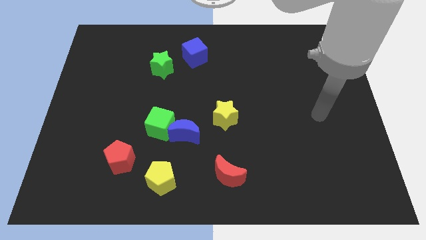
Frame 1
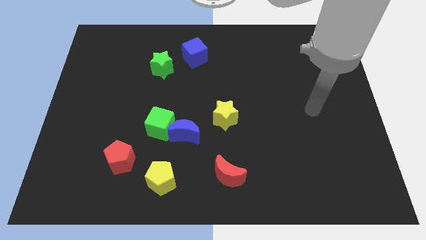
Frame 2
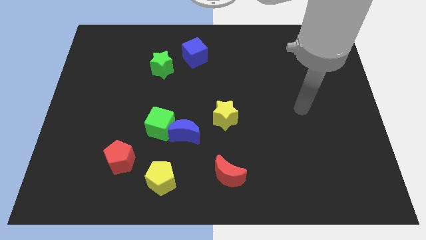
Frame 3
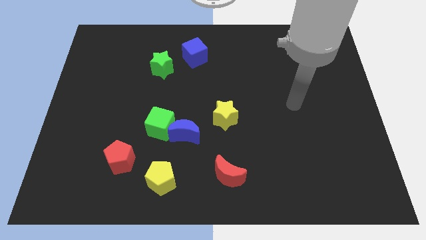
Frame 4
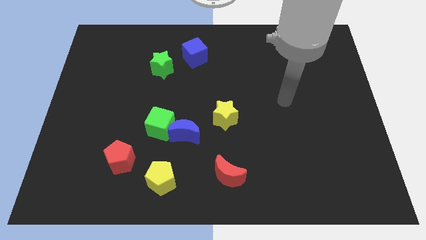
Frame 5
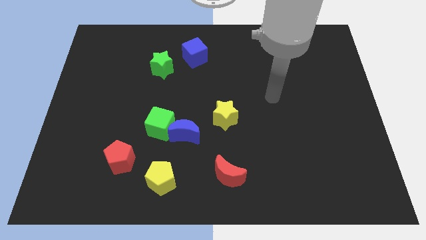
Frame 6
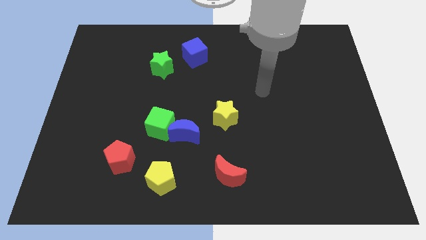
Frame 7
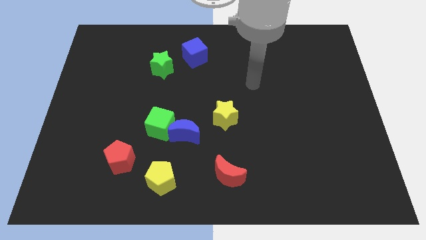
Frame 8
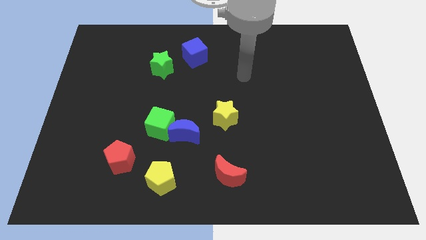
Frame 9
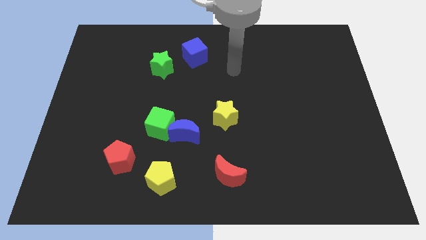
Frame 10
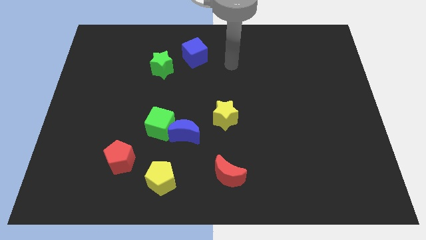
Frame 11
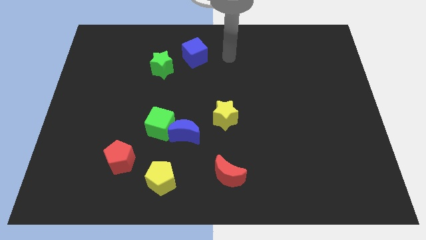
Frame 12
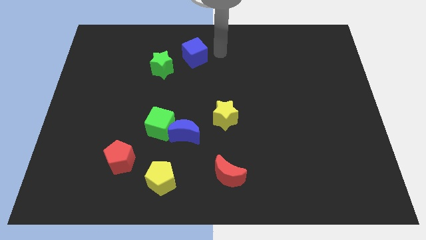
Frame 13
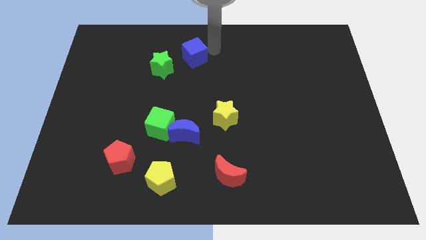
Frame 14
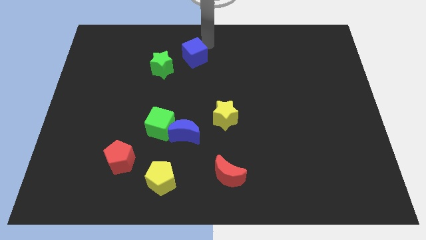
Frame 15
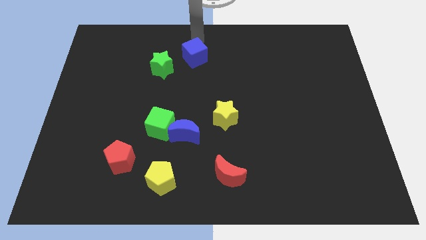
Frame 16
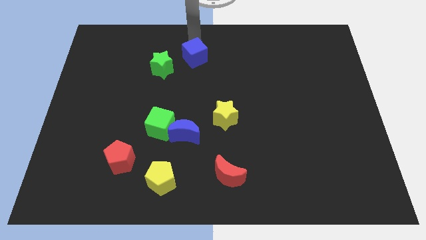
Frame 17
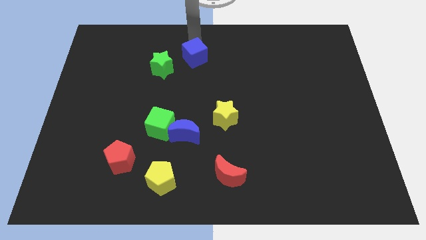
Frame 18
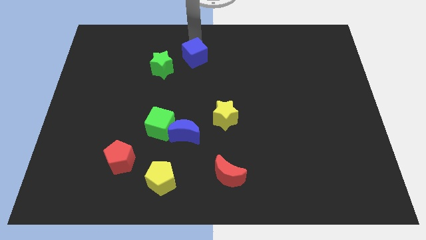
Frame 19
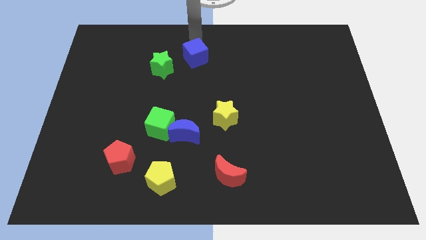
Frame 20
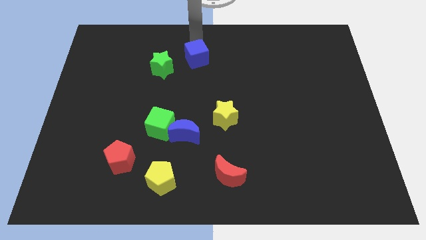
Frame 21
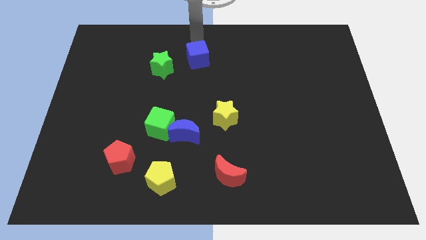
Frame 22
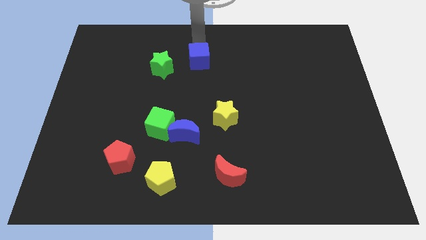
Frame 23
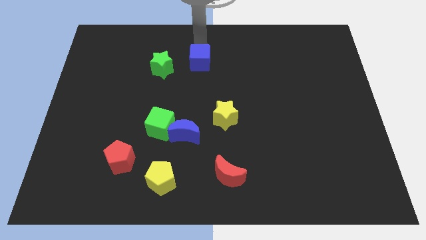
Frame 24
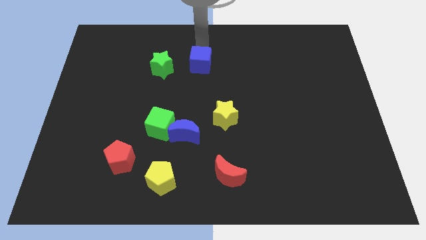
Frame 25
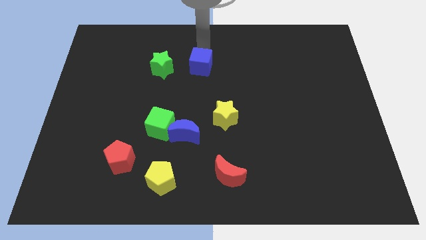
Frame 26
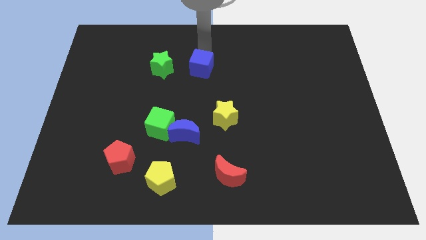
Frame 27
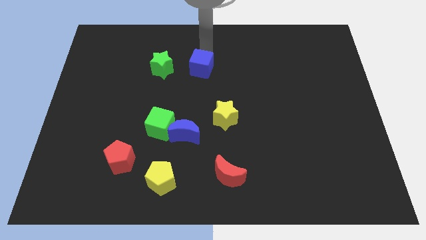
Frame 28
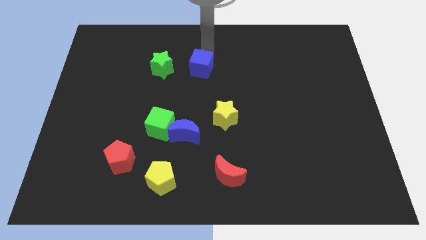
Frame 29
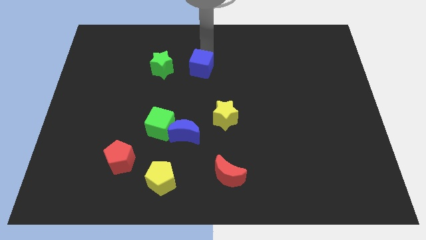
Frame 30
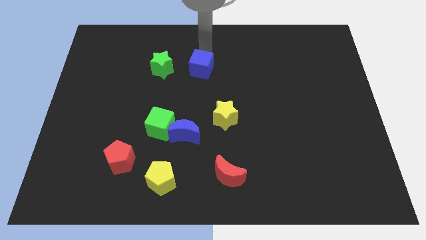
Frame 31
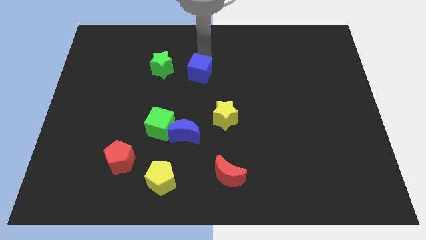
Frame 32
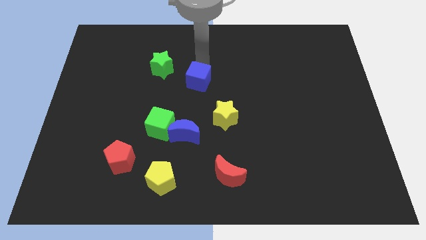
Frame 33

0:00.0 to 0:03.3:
push the blue cube down somewhat

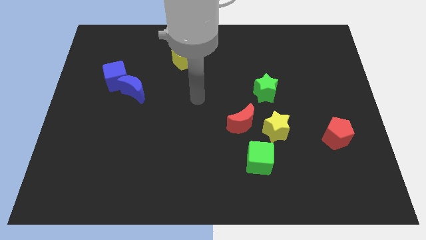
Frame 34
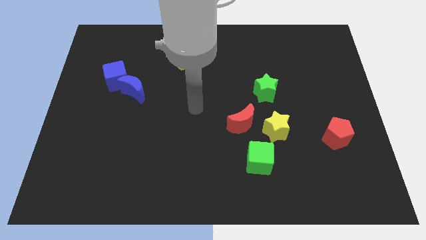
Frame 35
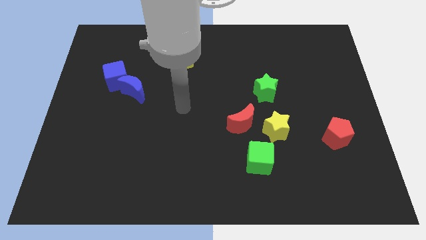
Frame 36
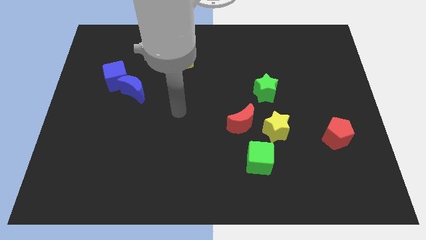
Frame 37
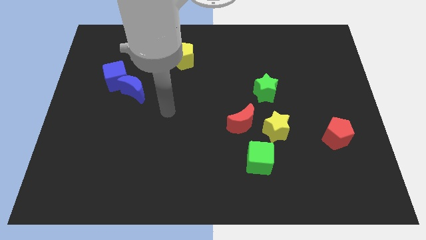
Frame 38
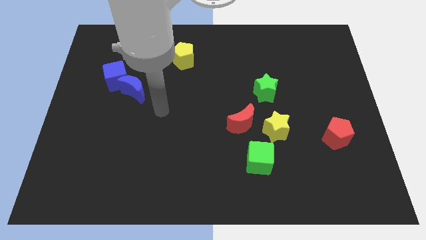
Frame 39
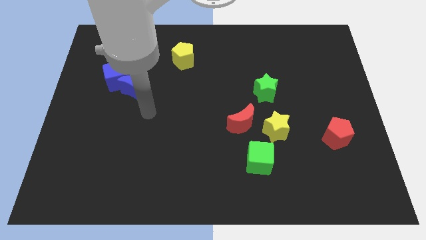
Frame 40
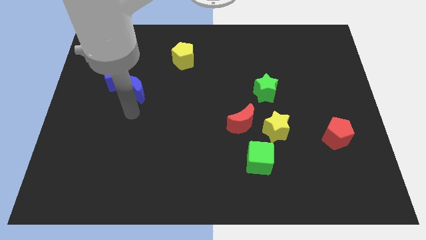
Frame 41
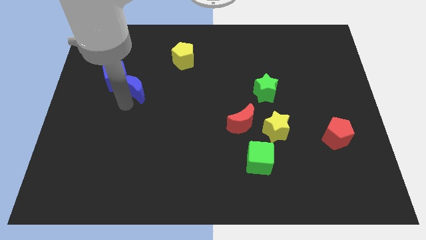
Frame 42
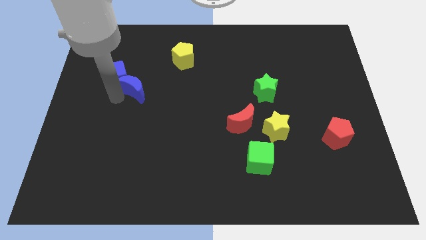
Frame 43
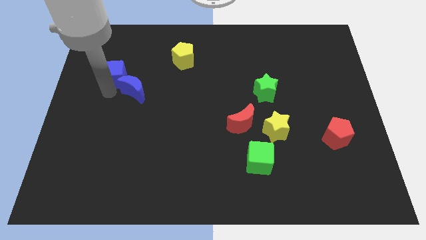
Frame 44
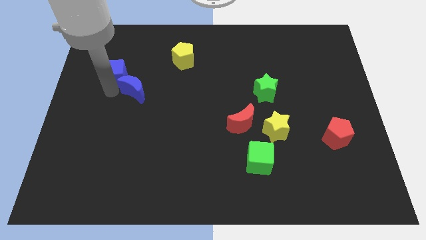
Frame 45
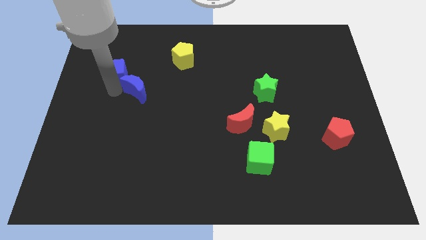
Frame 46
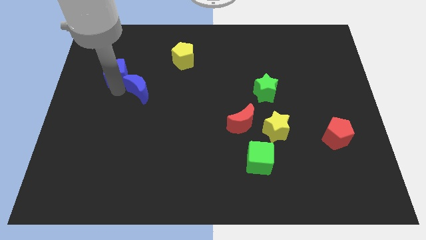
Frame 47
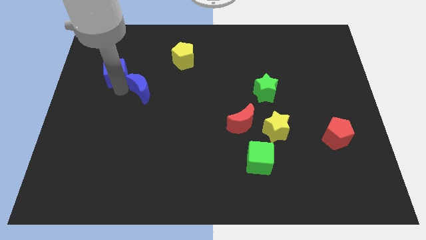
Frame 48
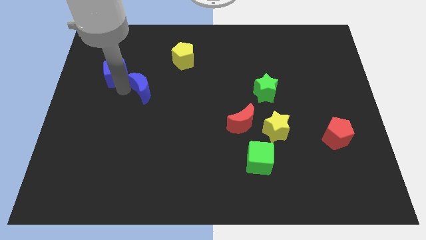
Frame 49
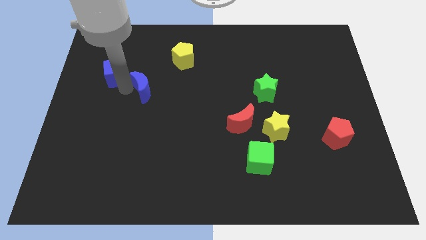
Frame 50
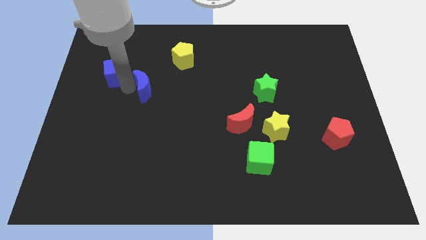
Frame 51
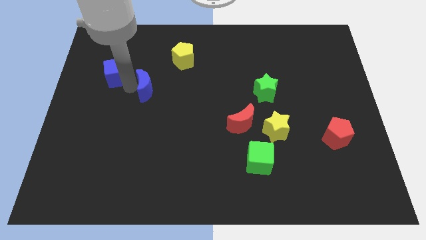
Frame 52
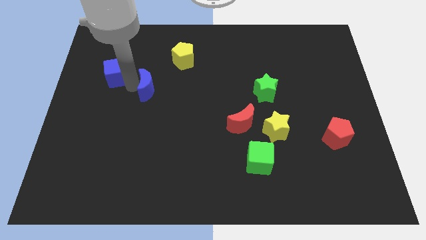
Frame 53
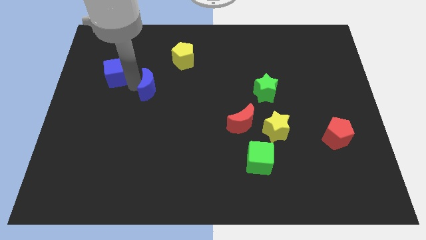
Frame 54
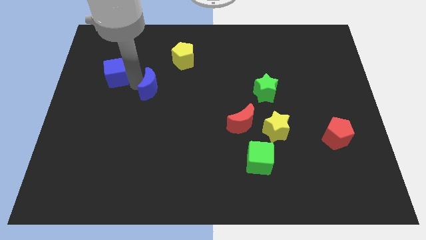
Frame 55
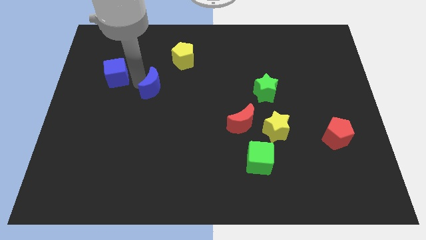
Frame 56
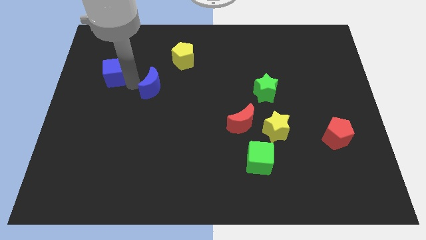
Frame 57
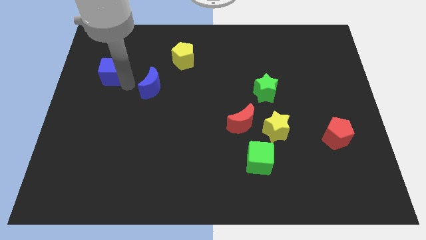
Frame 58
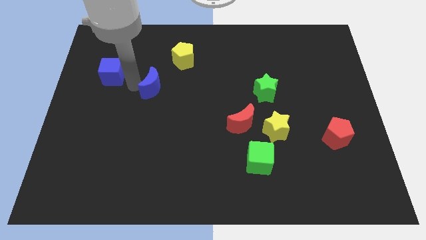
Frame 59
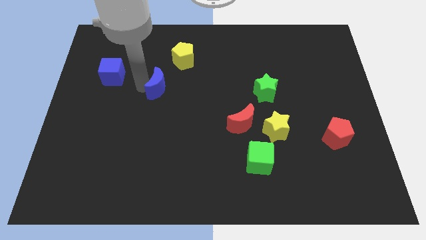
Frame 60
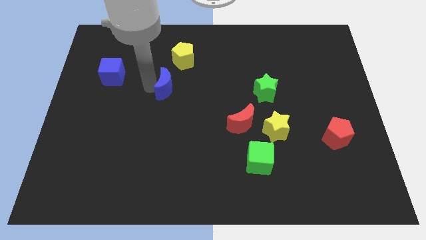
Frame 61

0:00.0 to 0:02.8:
slightly push the blue moon right

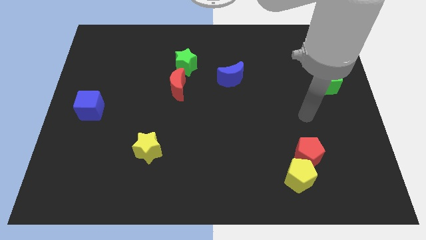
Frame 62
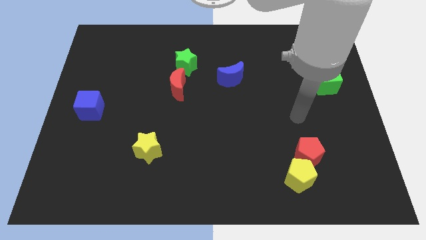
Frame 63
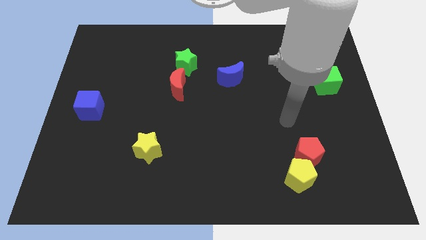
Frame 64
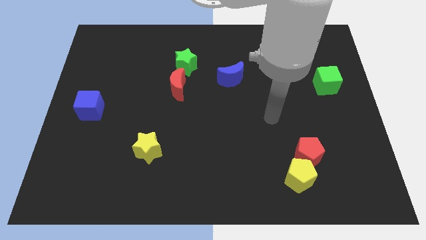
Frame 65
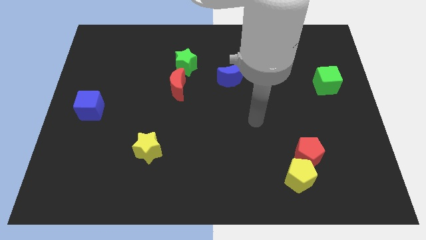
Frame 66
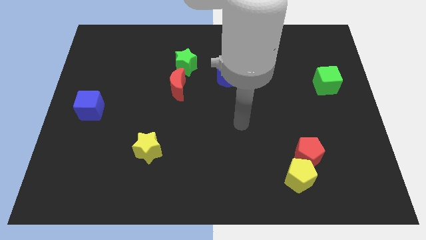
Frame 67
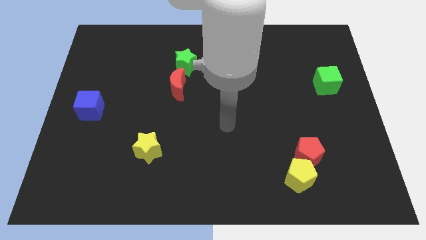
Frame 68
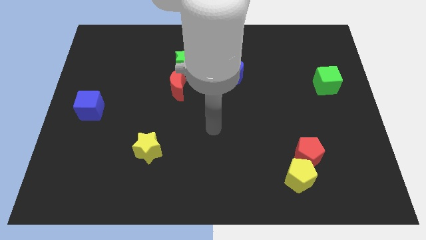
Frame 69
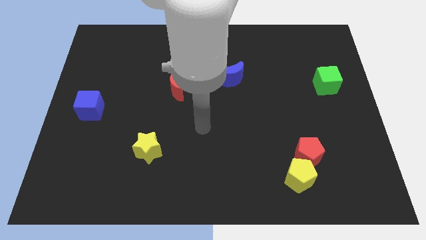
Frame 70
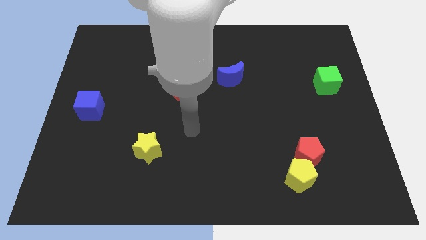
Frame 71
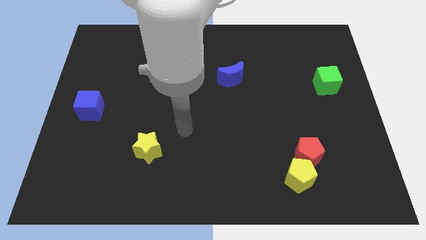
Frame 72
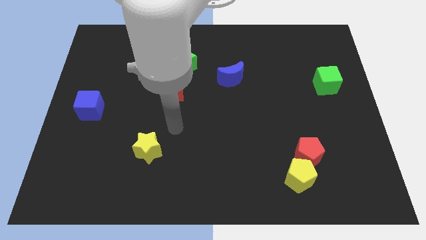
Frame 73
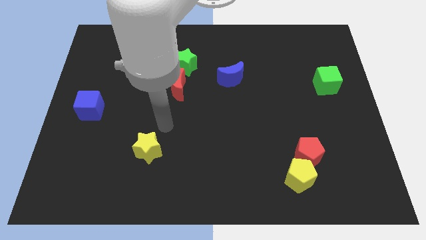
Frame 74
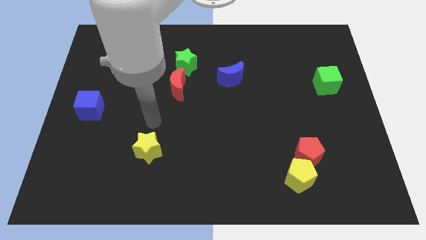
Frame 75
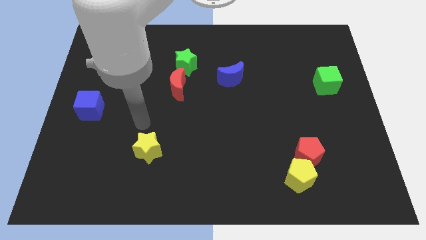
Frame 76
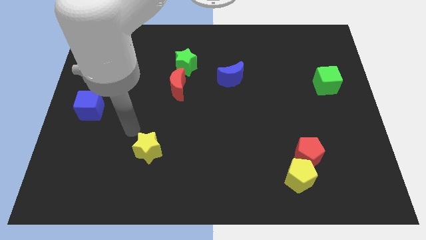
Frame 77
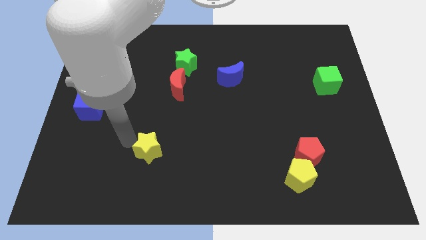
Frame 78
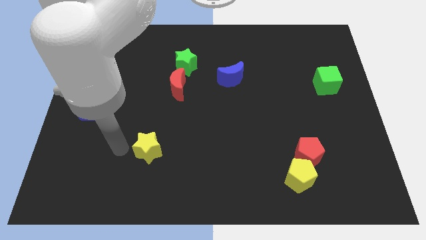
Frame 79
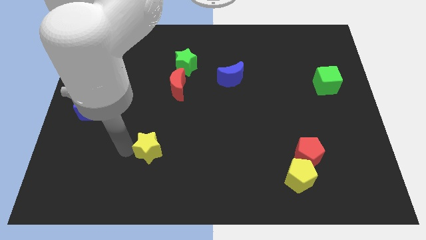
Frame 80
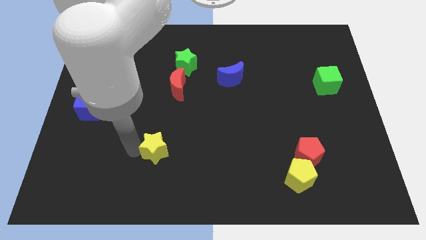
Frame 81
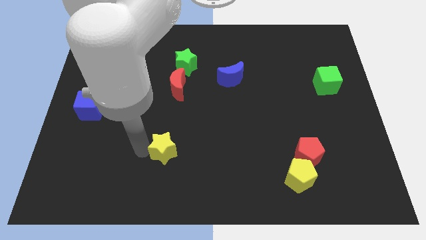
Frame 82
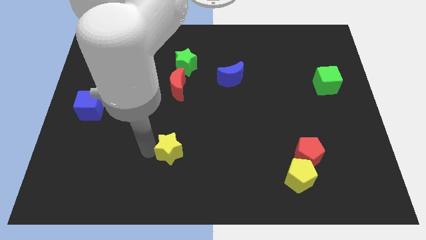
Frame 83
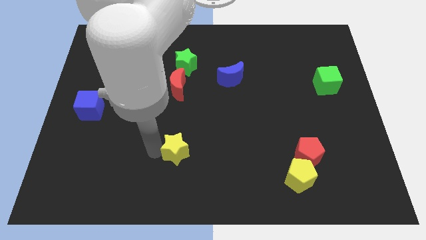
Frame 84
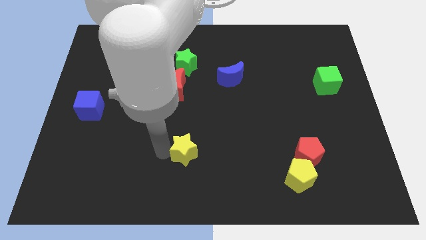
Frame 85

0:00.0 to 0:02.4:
slide the yellow star a little bit to the right
